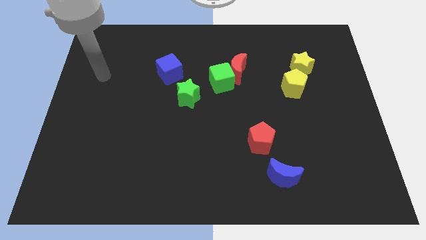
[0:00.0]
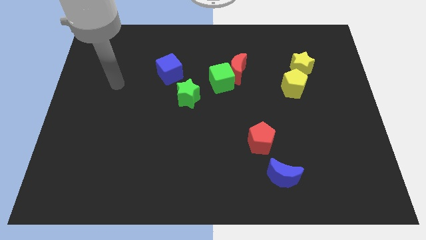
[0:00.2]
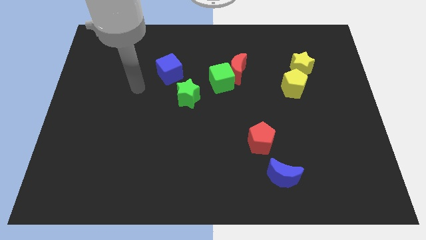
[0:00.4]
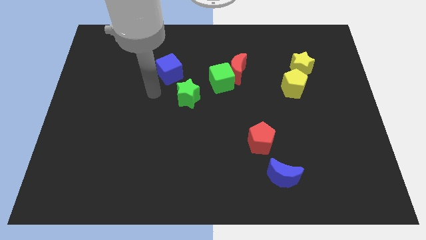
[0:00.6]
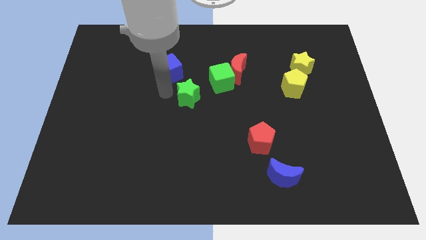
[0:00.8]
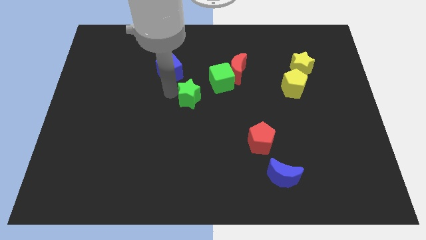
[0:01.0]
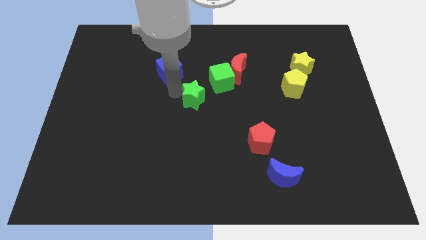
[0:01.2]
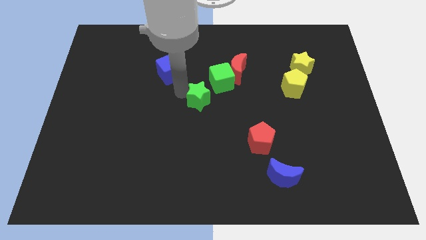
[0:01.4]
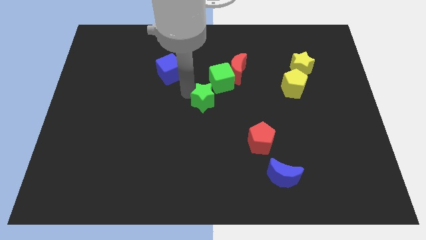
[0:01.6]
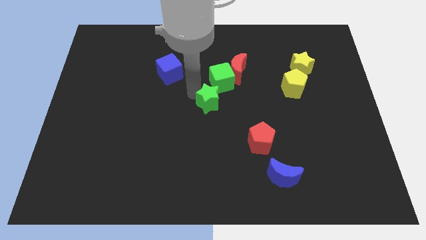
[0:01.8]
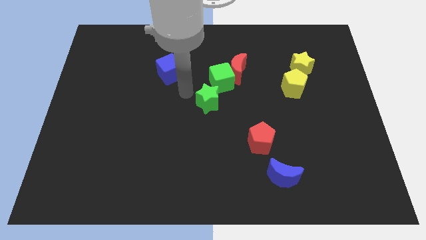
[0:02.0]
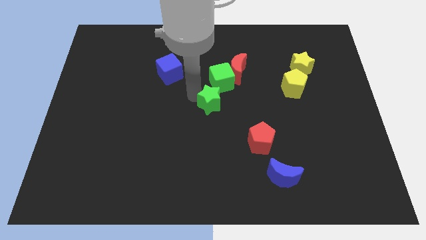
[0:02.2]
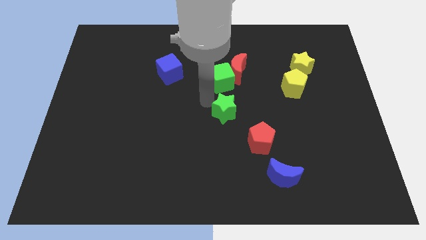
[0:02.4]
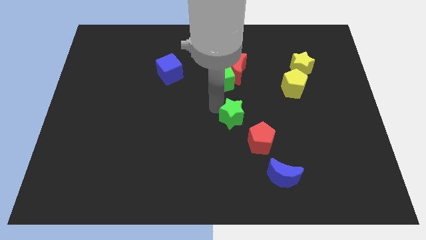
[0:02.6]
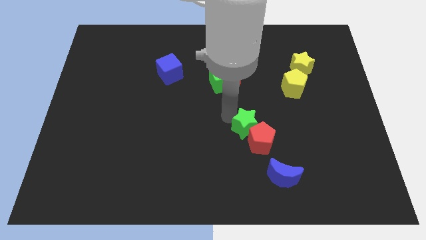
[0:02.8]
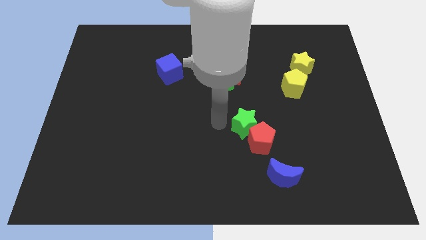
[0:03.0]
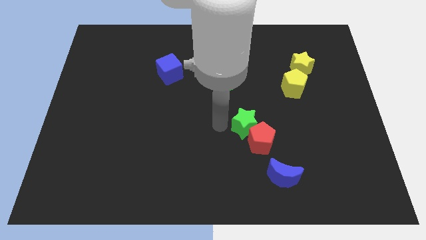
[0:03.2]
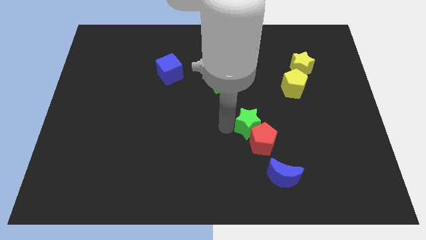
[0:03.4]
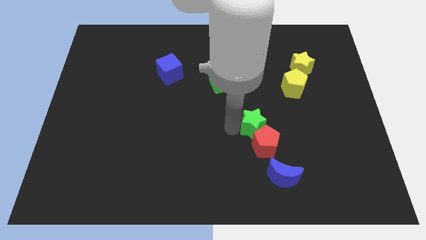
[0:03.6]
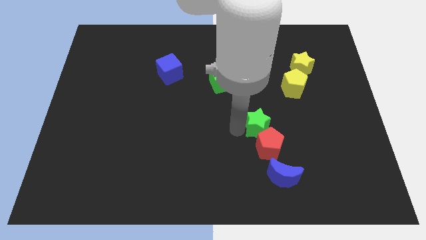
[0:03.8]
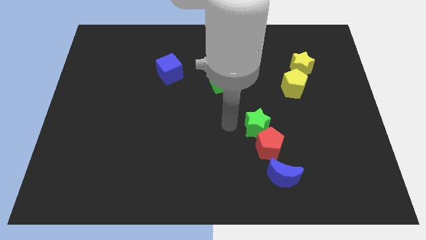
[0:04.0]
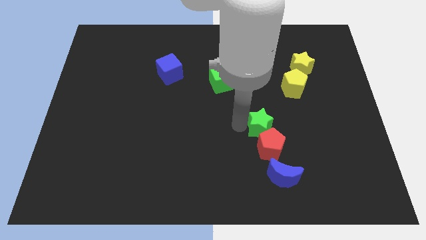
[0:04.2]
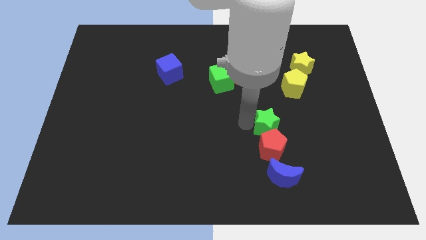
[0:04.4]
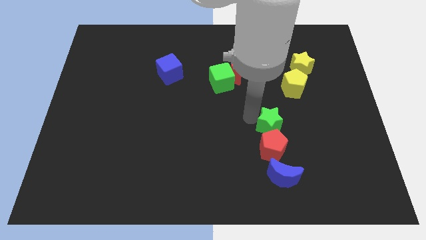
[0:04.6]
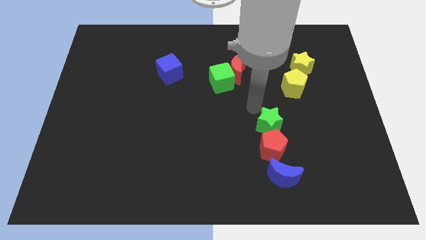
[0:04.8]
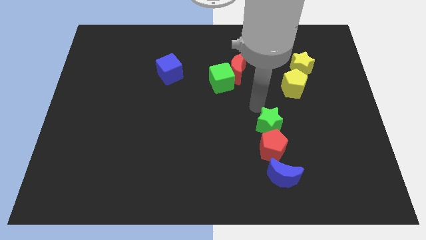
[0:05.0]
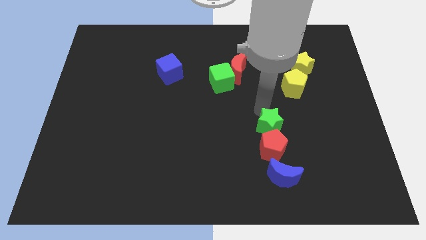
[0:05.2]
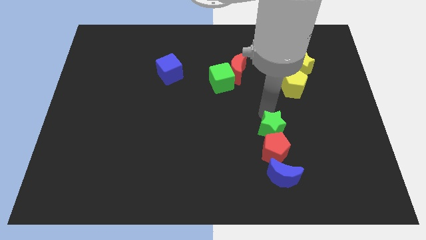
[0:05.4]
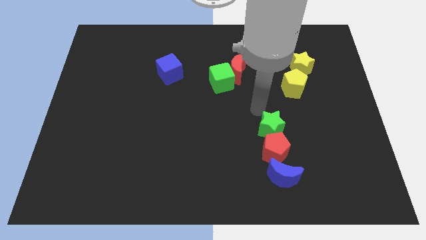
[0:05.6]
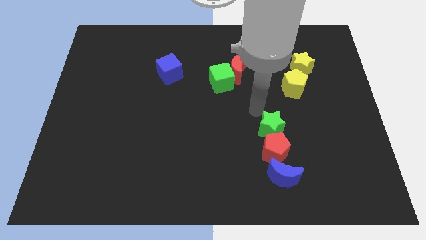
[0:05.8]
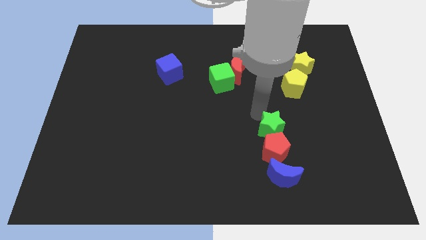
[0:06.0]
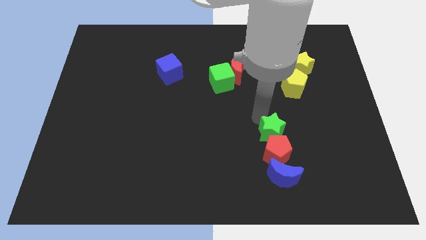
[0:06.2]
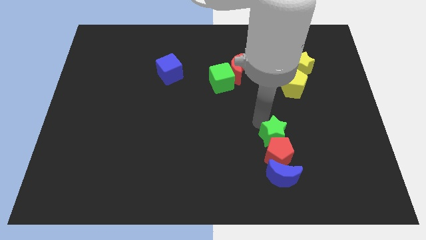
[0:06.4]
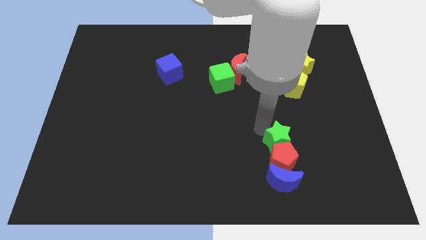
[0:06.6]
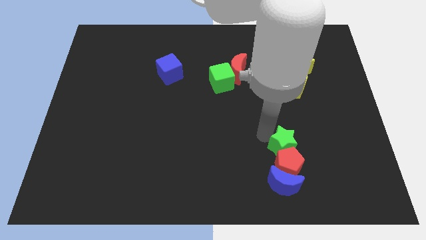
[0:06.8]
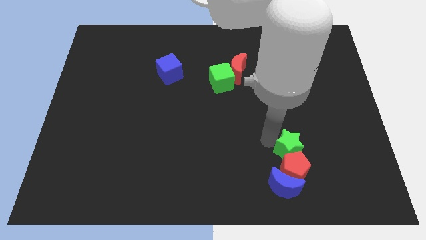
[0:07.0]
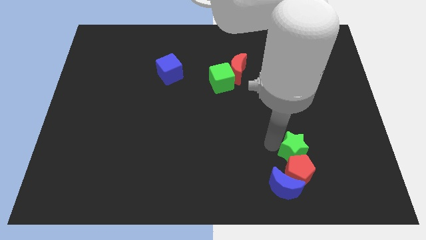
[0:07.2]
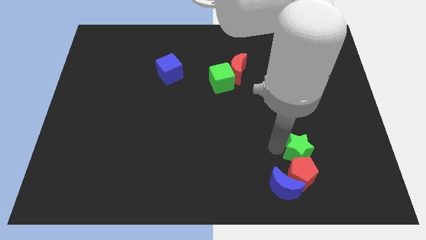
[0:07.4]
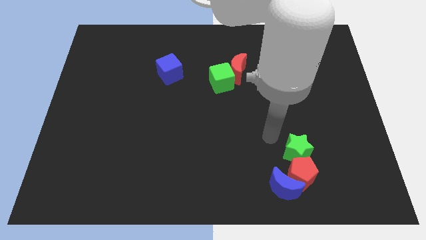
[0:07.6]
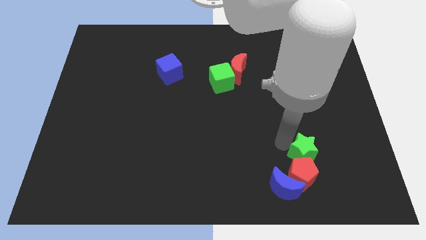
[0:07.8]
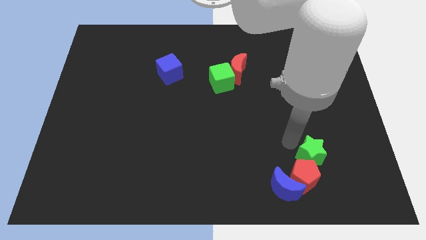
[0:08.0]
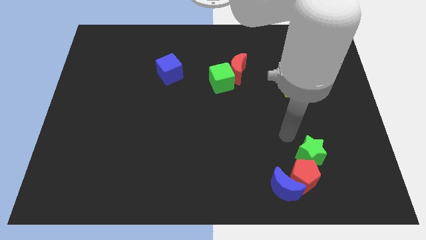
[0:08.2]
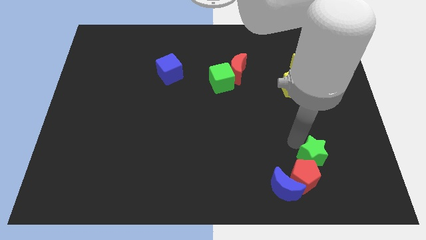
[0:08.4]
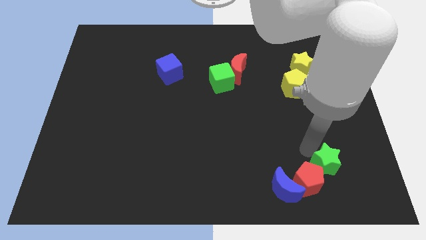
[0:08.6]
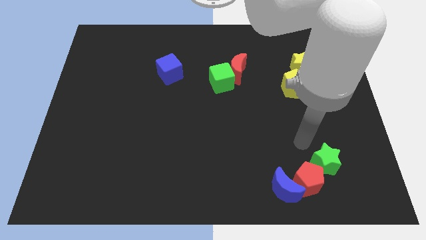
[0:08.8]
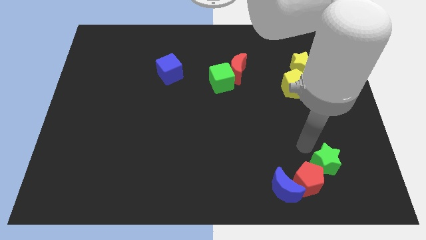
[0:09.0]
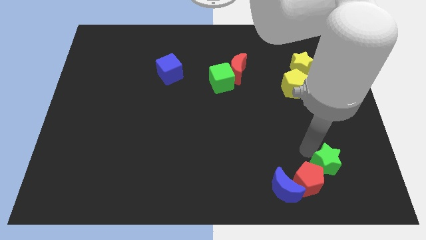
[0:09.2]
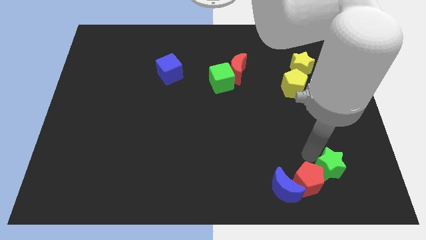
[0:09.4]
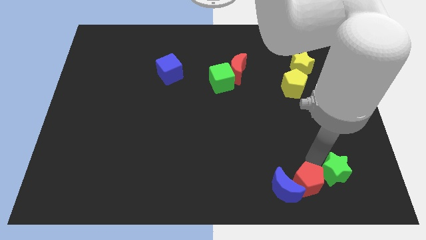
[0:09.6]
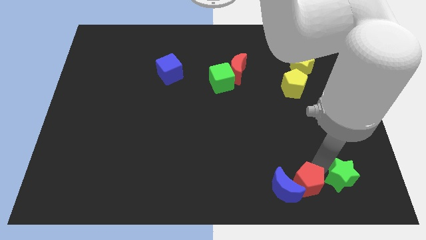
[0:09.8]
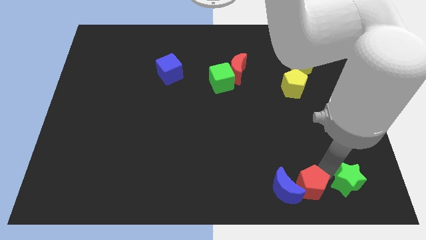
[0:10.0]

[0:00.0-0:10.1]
slide the green star to the bottom right corner
